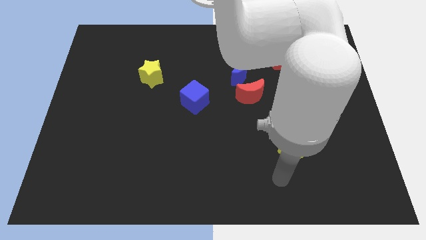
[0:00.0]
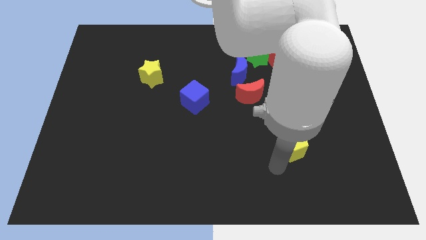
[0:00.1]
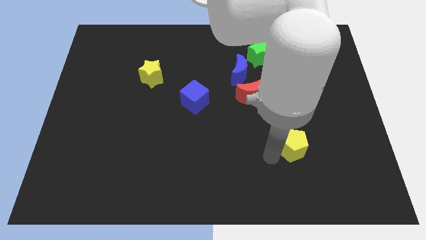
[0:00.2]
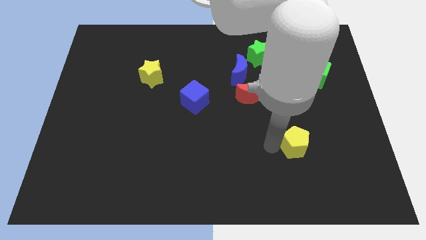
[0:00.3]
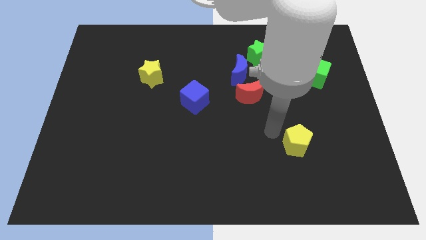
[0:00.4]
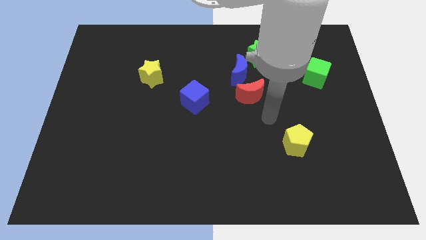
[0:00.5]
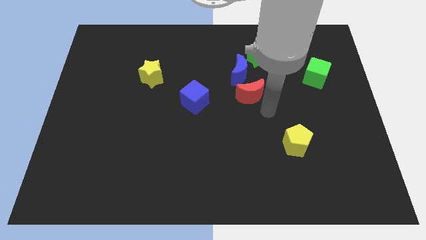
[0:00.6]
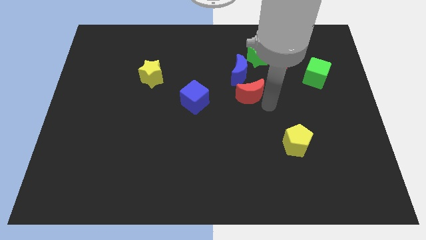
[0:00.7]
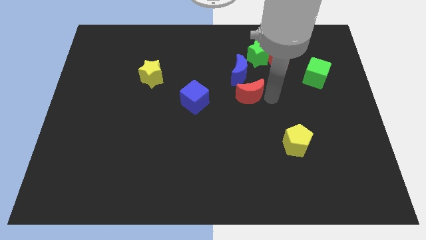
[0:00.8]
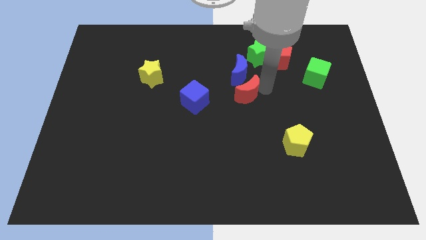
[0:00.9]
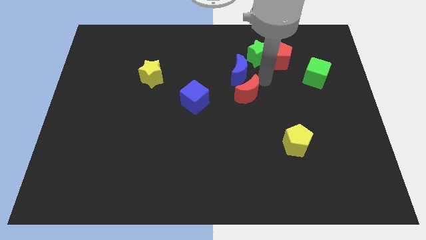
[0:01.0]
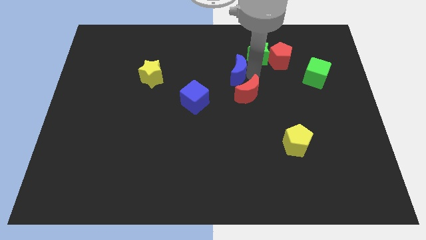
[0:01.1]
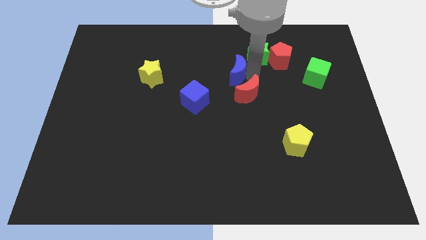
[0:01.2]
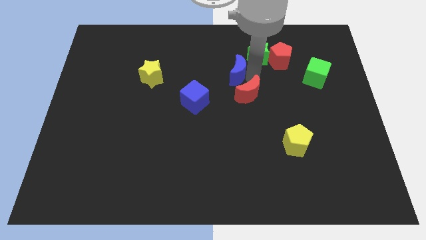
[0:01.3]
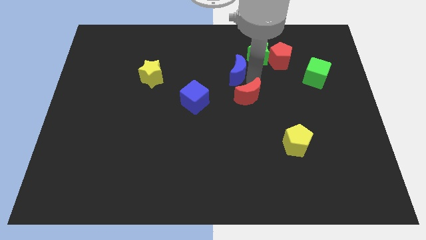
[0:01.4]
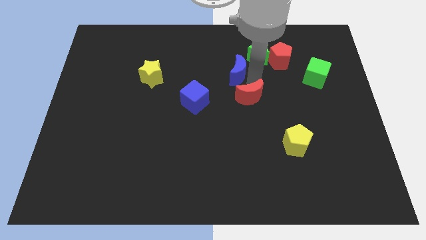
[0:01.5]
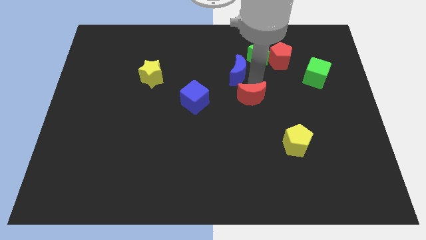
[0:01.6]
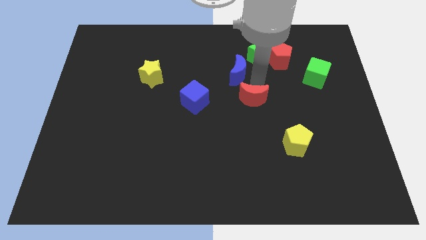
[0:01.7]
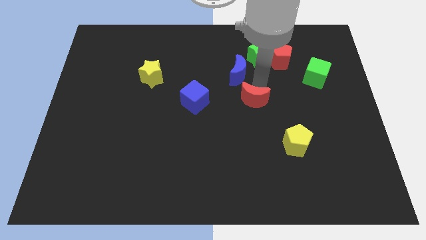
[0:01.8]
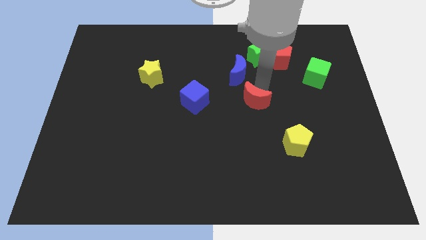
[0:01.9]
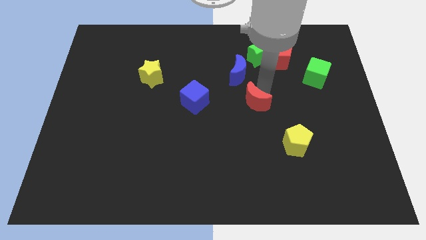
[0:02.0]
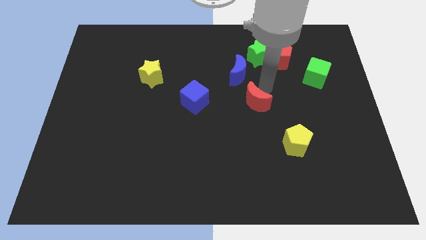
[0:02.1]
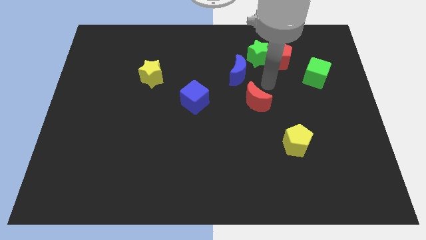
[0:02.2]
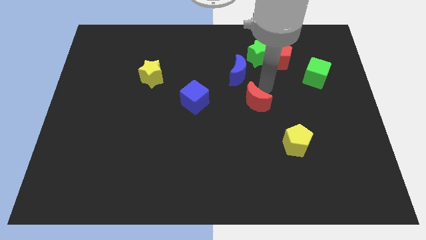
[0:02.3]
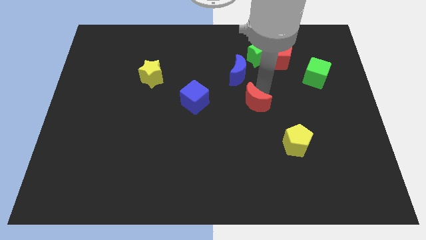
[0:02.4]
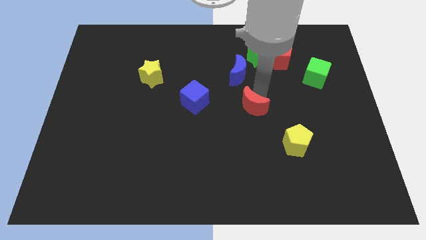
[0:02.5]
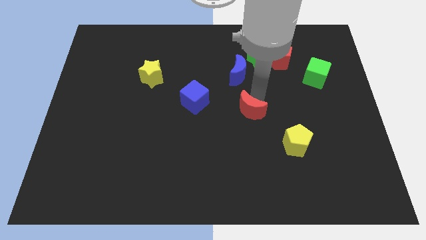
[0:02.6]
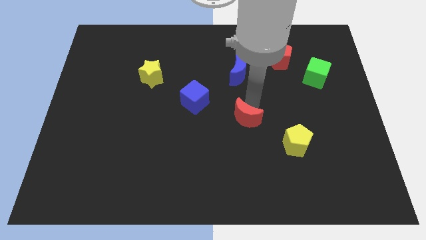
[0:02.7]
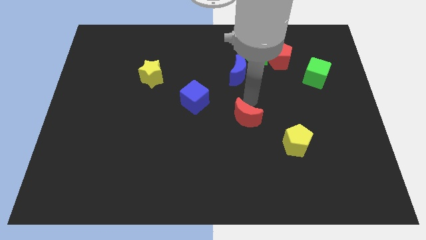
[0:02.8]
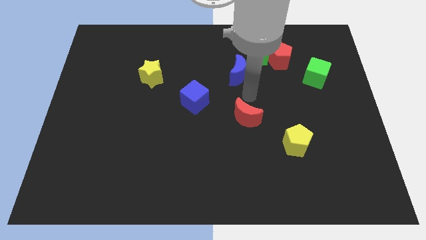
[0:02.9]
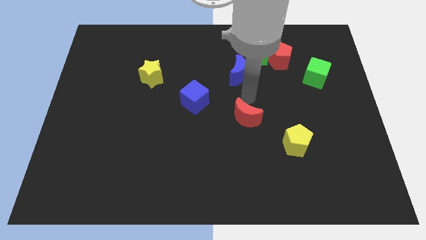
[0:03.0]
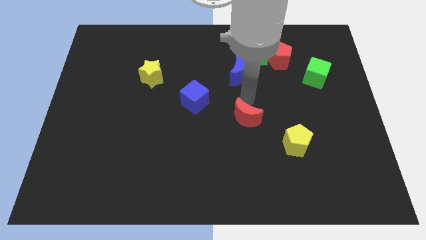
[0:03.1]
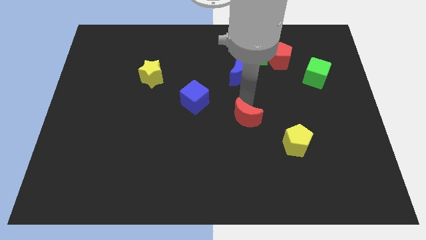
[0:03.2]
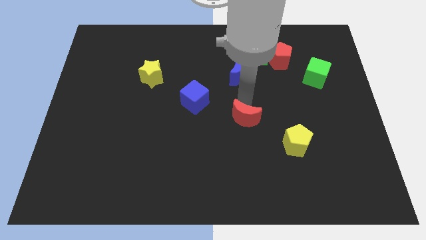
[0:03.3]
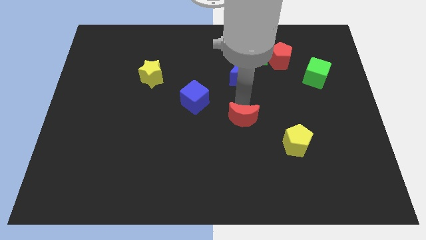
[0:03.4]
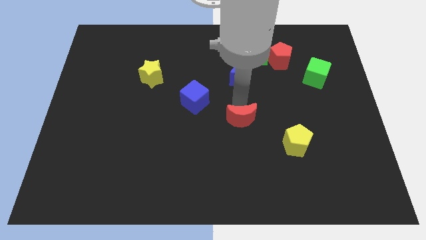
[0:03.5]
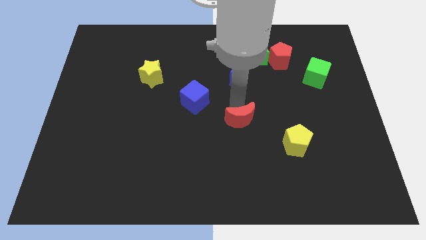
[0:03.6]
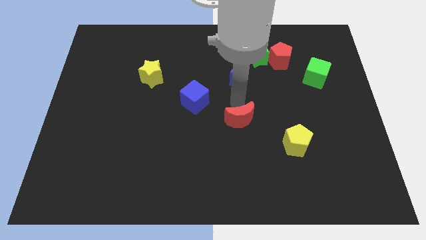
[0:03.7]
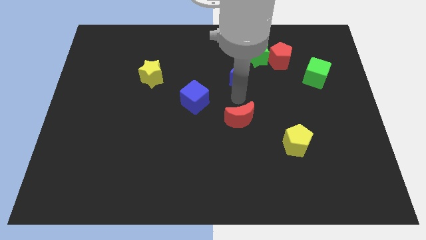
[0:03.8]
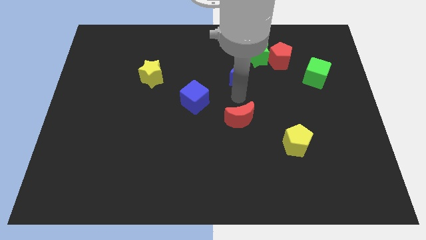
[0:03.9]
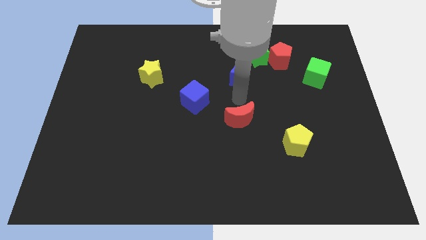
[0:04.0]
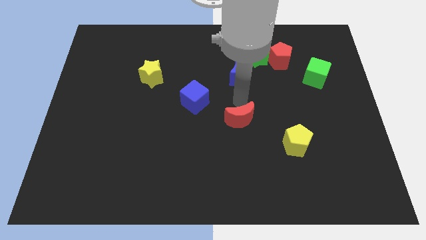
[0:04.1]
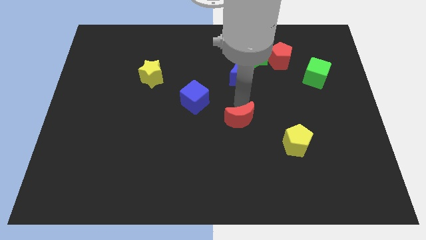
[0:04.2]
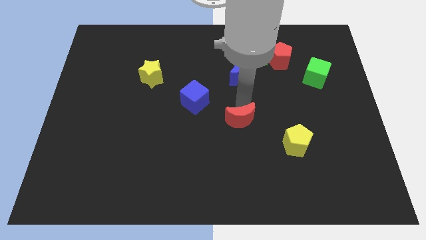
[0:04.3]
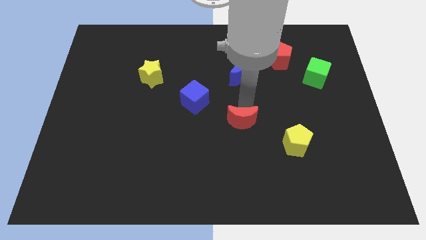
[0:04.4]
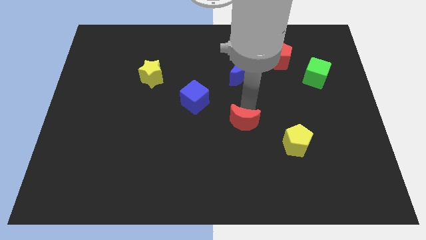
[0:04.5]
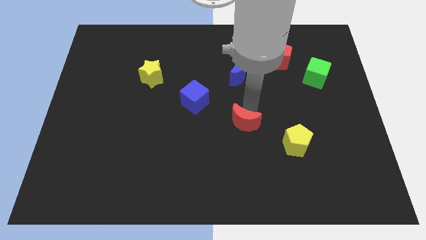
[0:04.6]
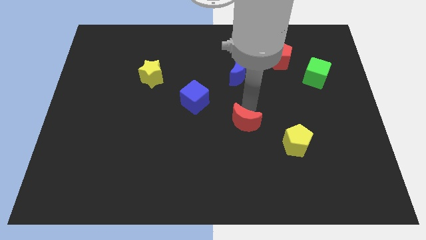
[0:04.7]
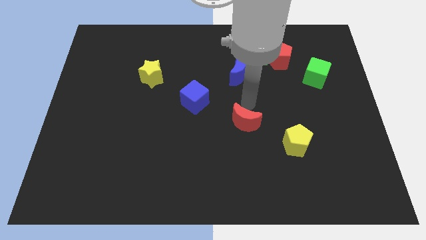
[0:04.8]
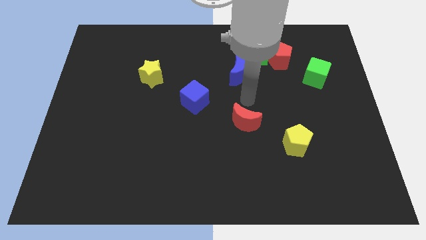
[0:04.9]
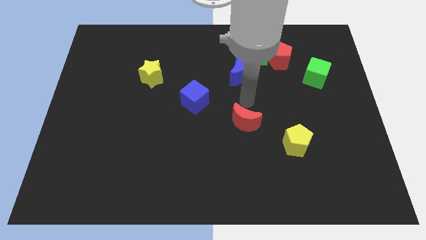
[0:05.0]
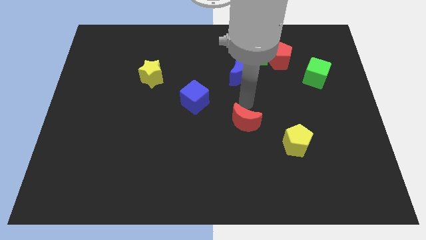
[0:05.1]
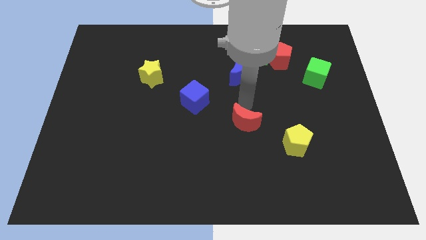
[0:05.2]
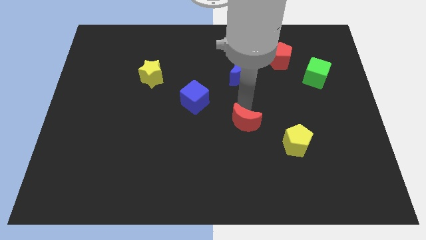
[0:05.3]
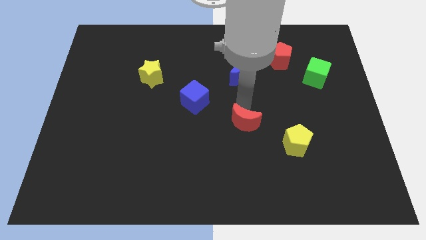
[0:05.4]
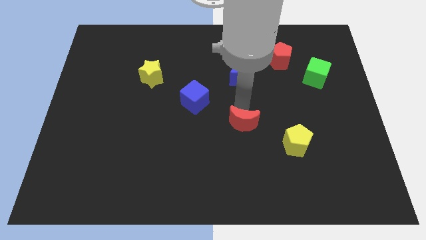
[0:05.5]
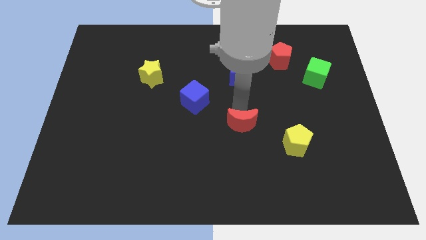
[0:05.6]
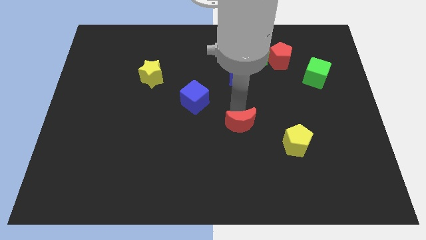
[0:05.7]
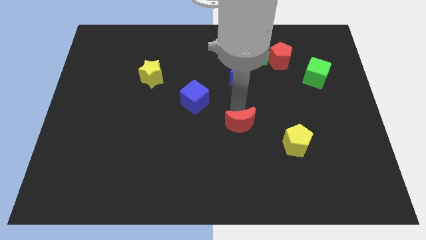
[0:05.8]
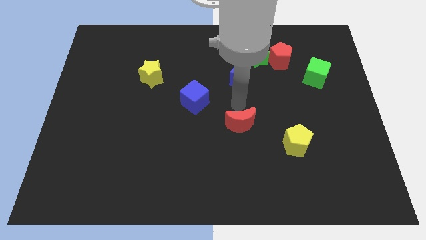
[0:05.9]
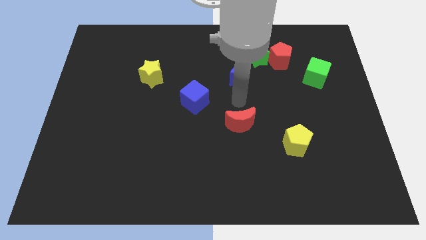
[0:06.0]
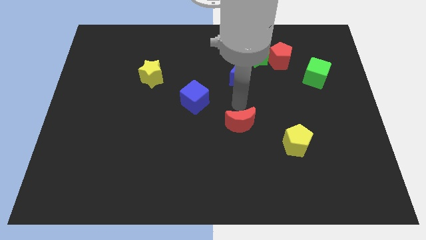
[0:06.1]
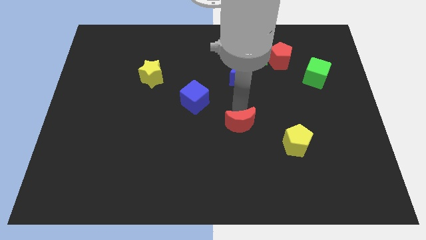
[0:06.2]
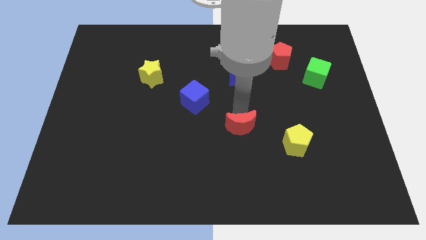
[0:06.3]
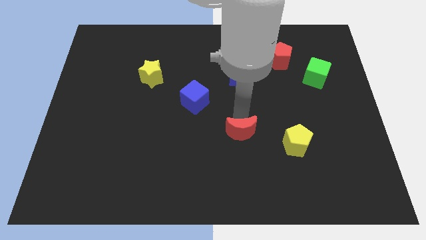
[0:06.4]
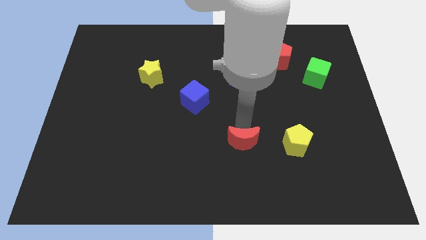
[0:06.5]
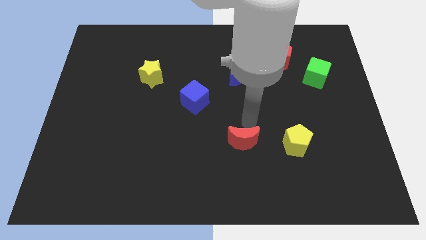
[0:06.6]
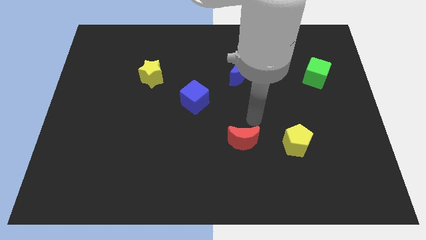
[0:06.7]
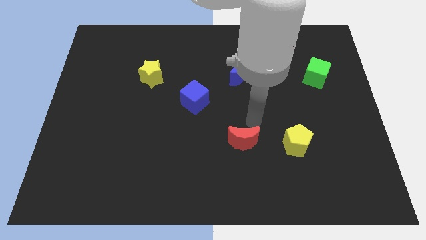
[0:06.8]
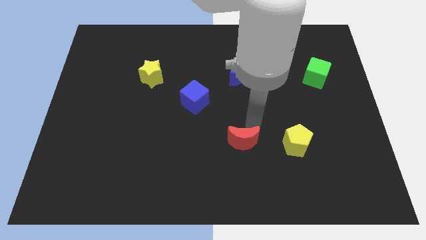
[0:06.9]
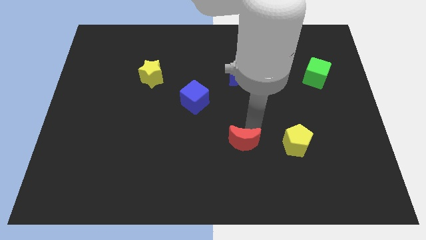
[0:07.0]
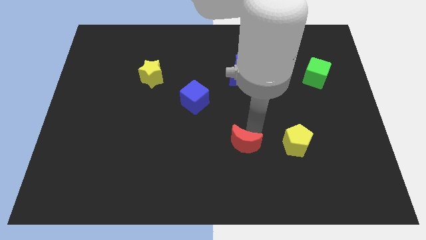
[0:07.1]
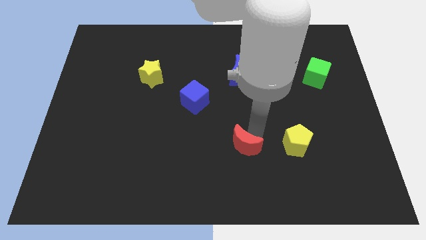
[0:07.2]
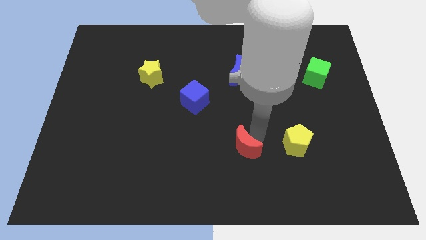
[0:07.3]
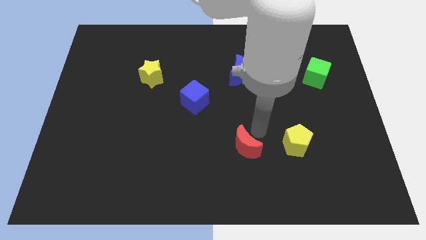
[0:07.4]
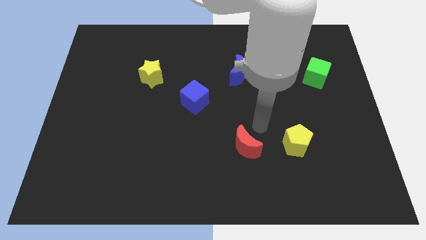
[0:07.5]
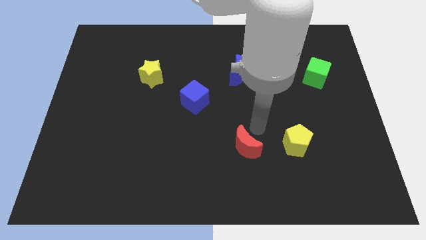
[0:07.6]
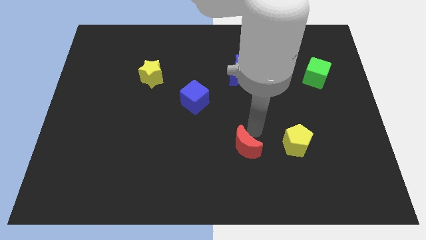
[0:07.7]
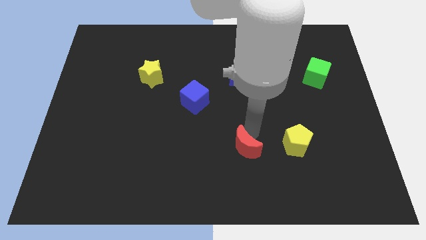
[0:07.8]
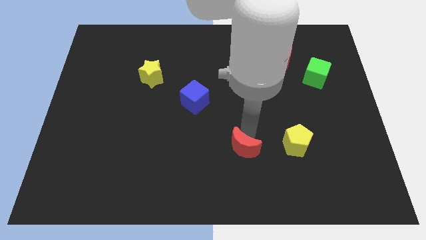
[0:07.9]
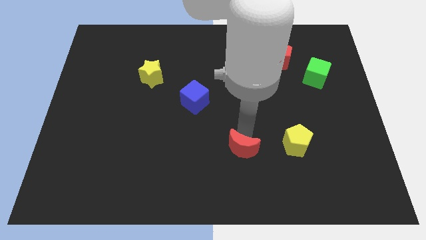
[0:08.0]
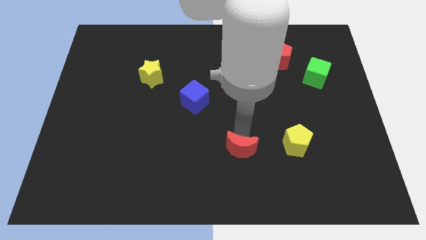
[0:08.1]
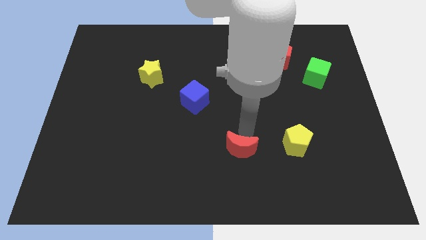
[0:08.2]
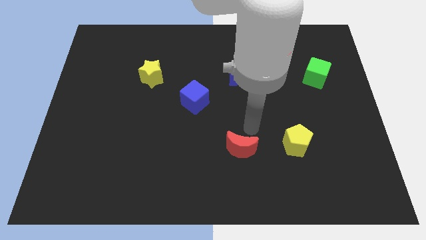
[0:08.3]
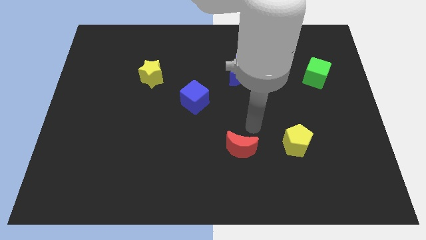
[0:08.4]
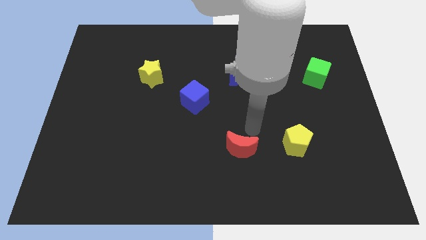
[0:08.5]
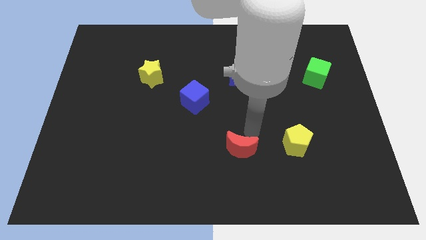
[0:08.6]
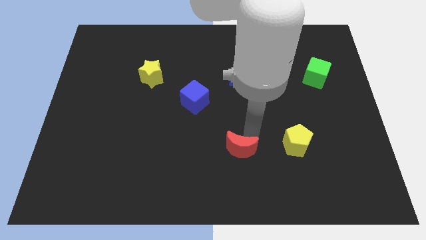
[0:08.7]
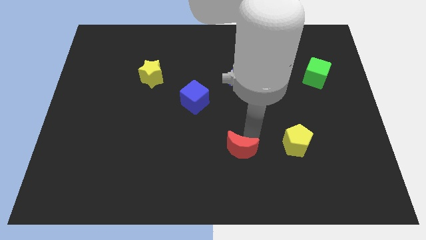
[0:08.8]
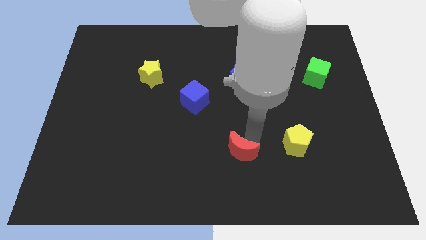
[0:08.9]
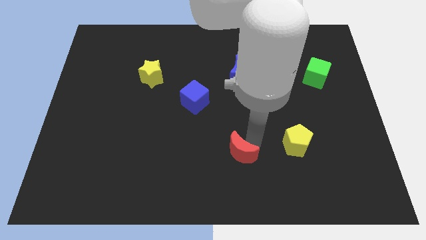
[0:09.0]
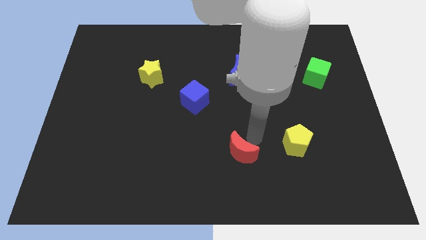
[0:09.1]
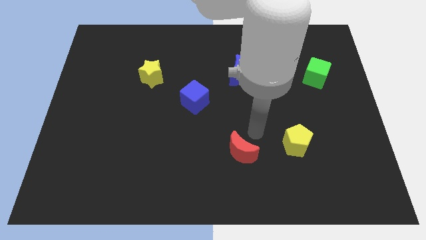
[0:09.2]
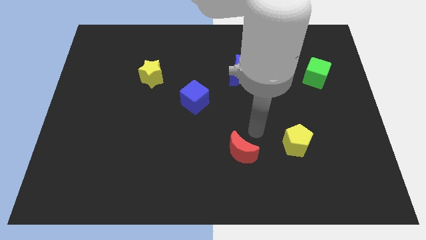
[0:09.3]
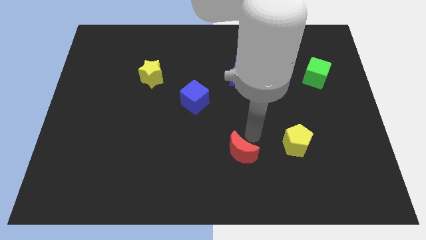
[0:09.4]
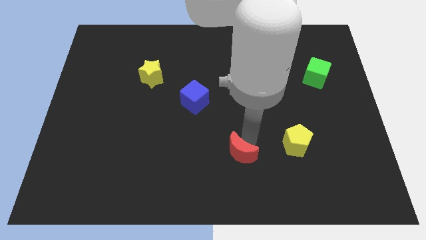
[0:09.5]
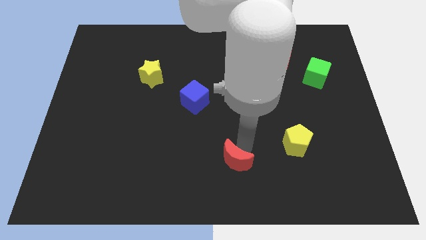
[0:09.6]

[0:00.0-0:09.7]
push the red moon to the bottom side
